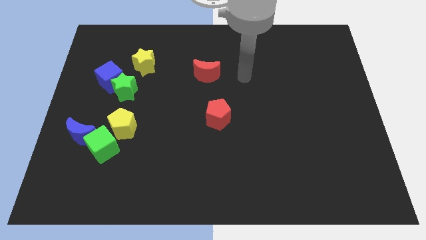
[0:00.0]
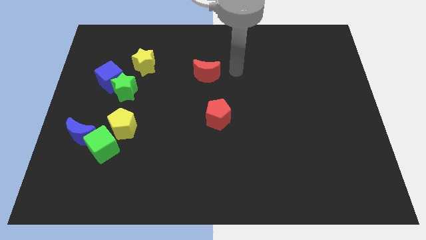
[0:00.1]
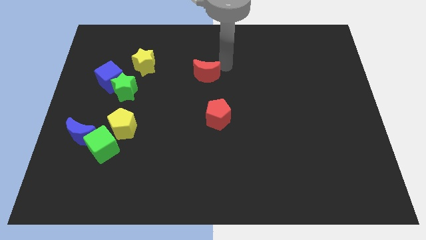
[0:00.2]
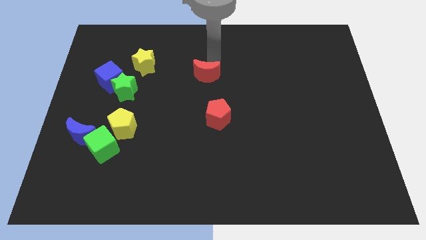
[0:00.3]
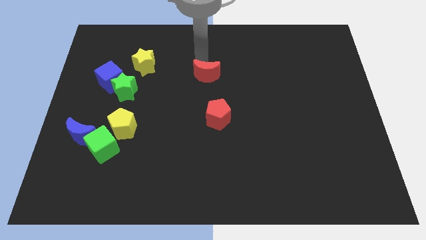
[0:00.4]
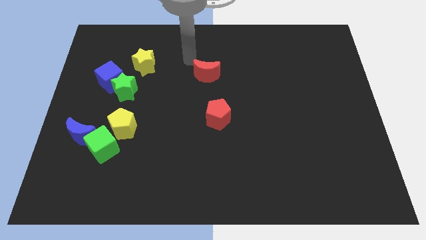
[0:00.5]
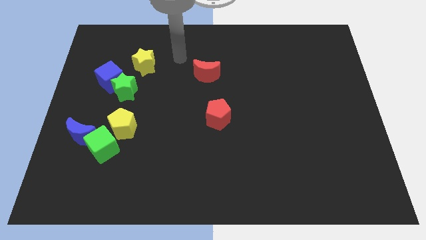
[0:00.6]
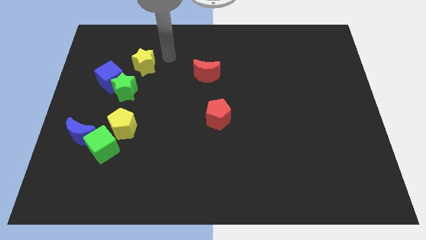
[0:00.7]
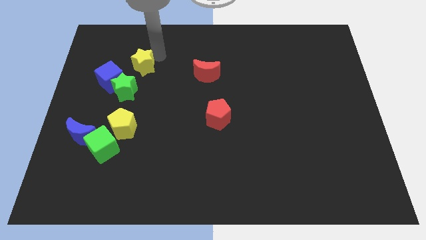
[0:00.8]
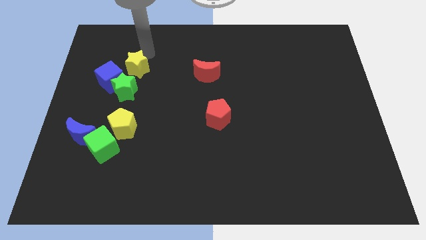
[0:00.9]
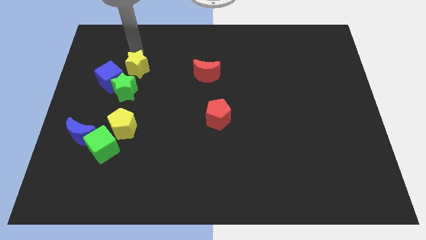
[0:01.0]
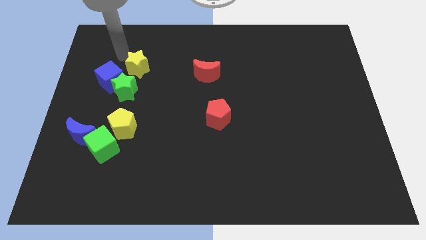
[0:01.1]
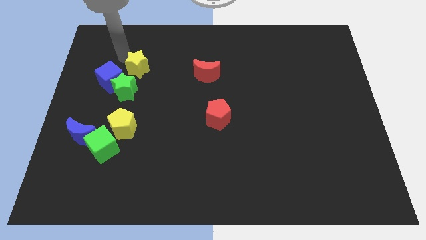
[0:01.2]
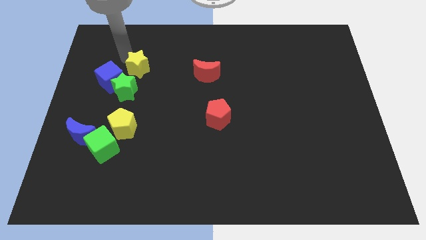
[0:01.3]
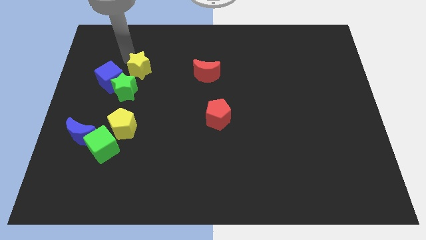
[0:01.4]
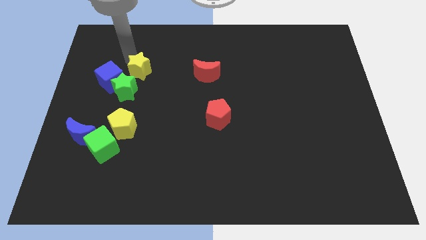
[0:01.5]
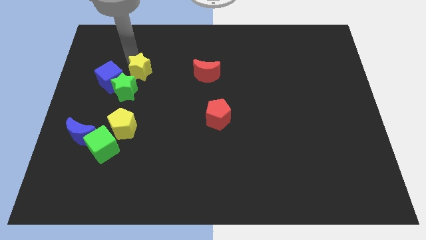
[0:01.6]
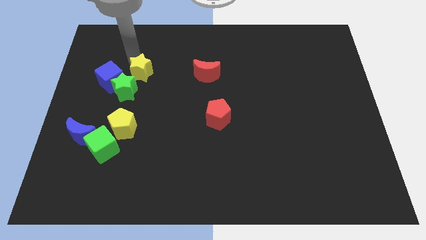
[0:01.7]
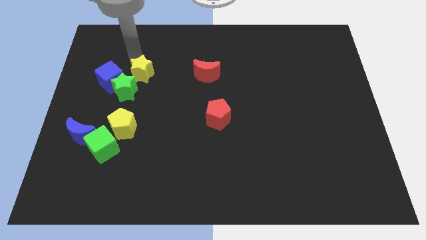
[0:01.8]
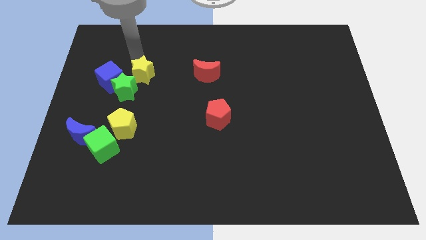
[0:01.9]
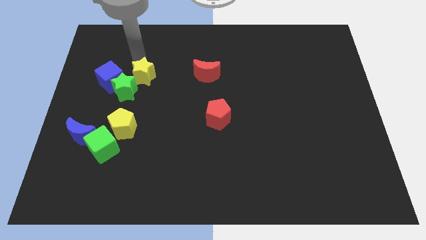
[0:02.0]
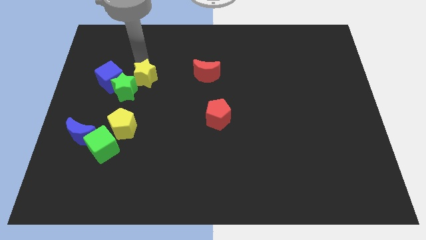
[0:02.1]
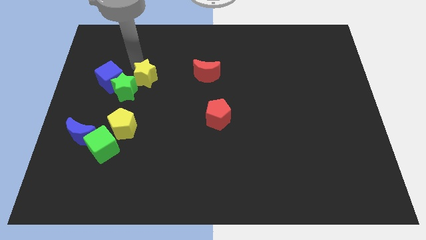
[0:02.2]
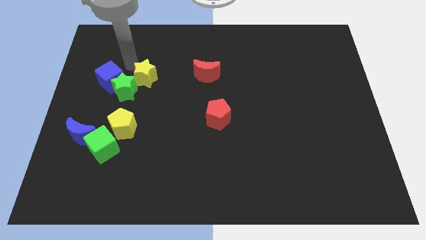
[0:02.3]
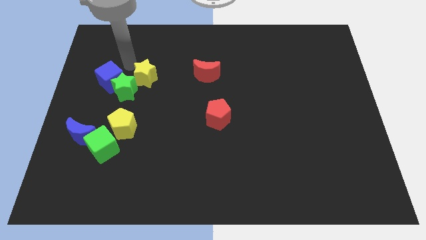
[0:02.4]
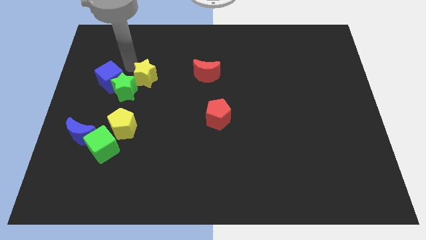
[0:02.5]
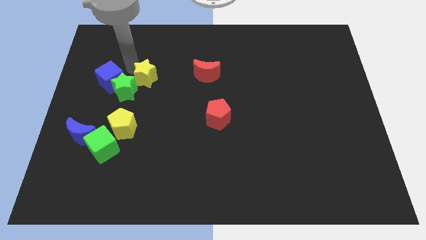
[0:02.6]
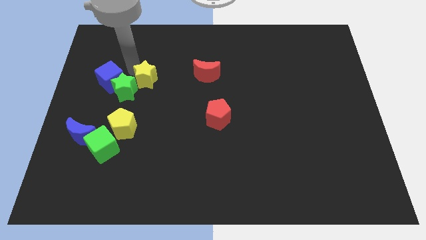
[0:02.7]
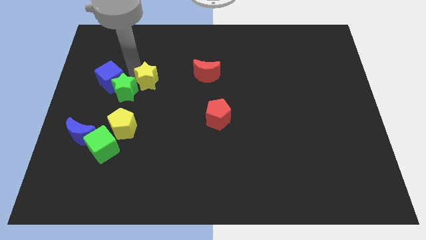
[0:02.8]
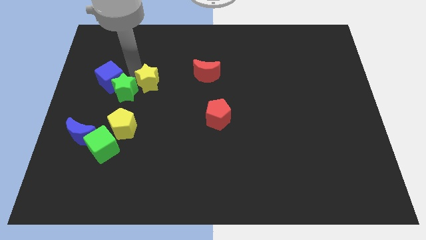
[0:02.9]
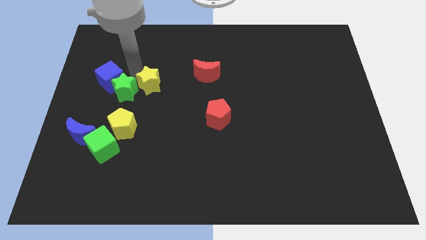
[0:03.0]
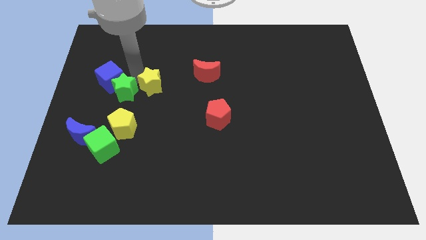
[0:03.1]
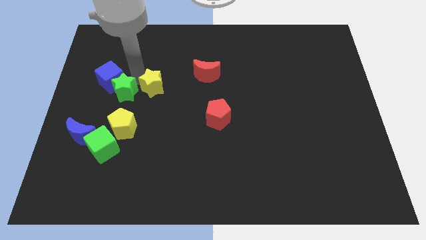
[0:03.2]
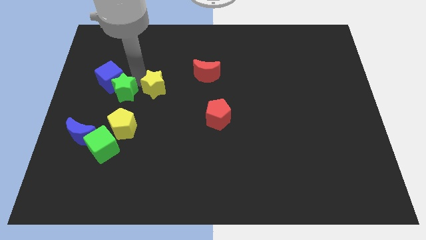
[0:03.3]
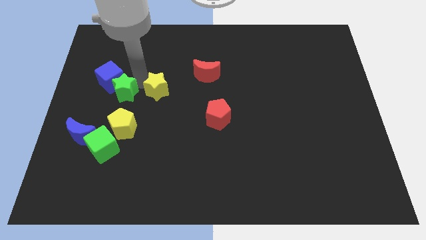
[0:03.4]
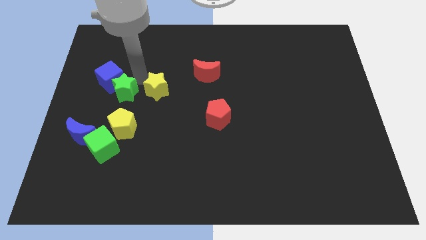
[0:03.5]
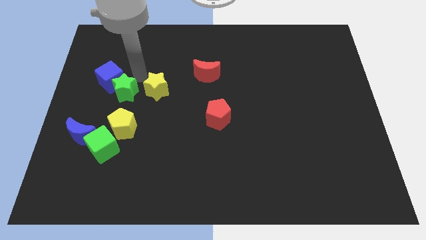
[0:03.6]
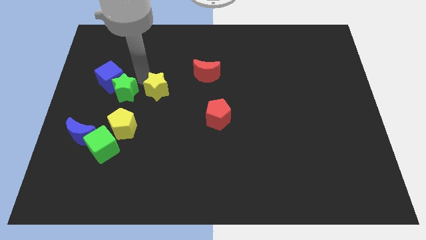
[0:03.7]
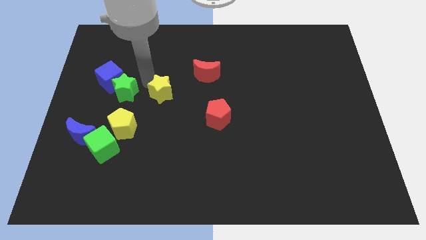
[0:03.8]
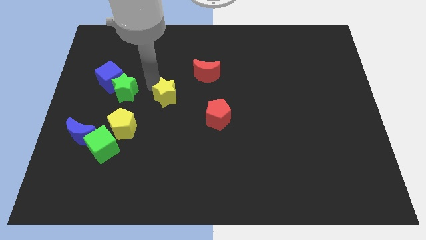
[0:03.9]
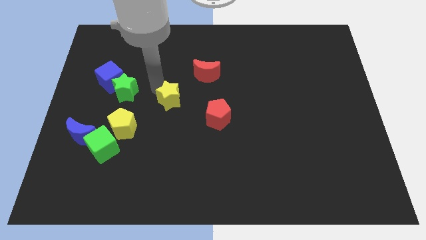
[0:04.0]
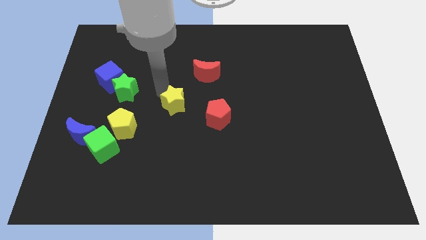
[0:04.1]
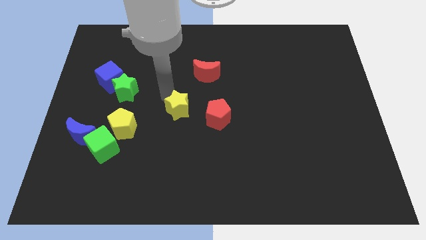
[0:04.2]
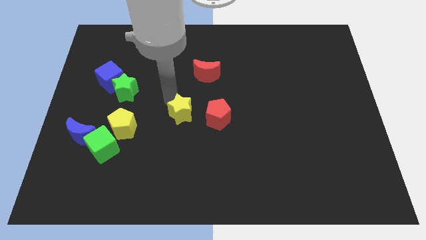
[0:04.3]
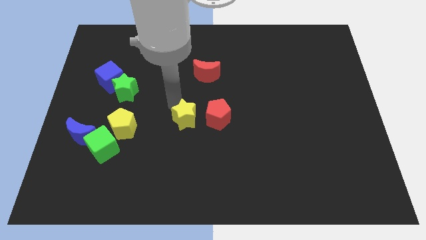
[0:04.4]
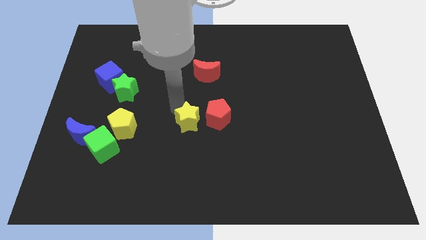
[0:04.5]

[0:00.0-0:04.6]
slide the yellow star down and to the right

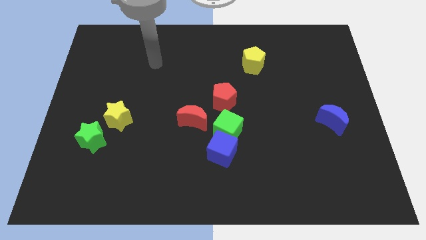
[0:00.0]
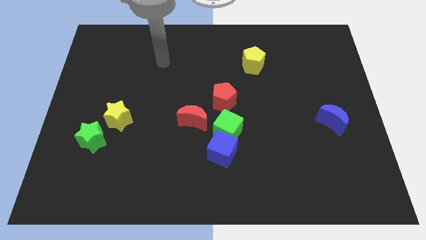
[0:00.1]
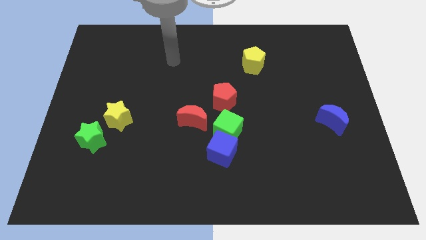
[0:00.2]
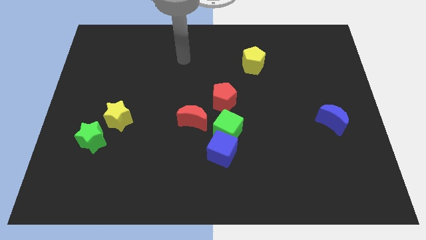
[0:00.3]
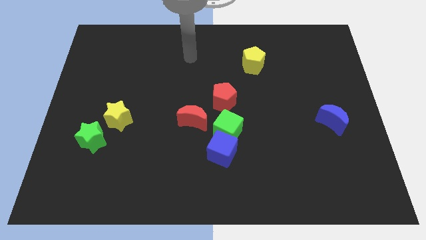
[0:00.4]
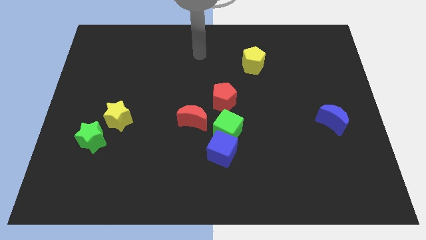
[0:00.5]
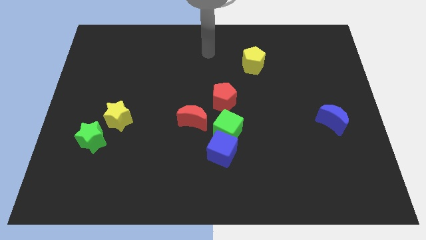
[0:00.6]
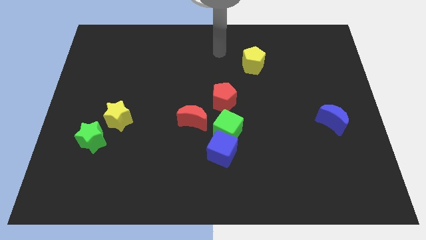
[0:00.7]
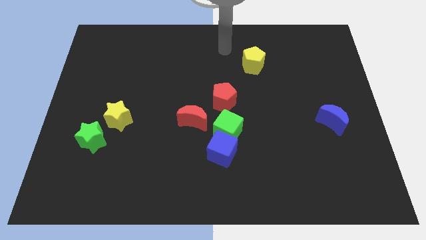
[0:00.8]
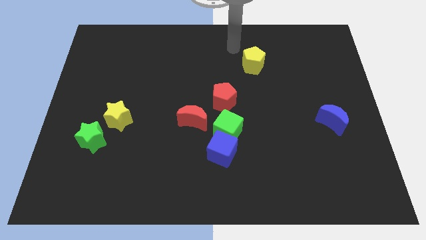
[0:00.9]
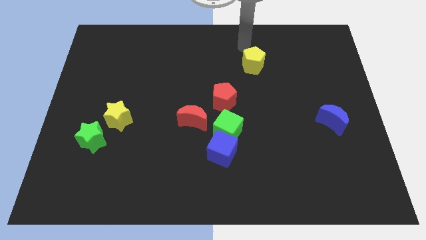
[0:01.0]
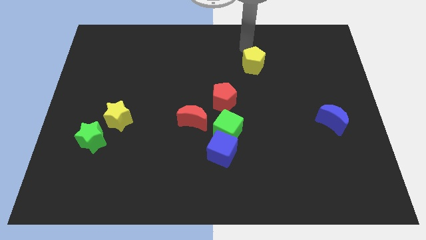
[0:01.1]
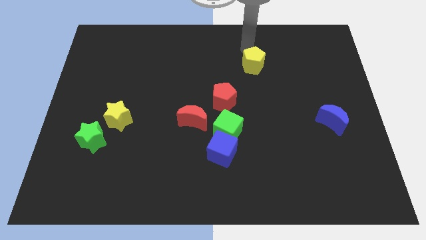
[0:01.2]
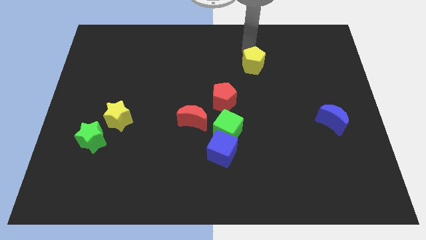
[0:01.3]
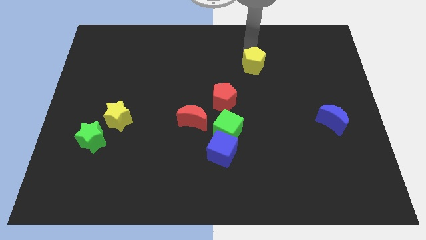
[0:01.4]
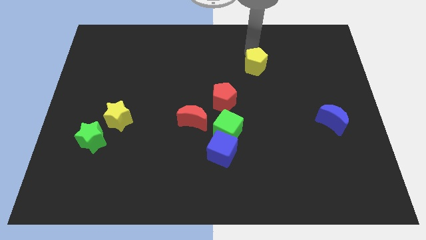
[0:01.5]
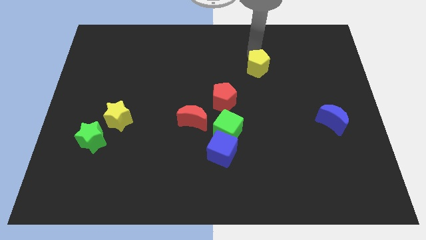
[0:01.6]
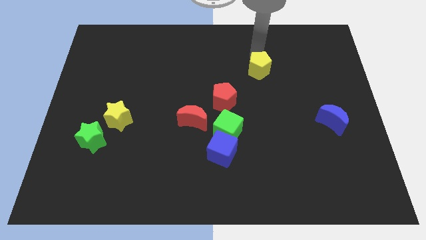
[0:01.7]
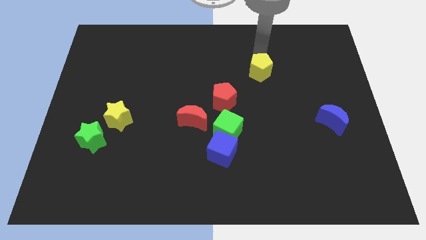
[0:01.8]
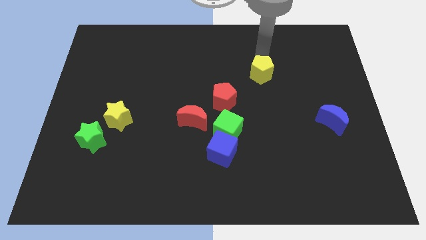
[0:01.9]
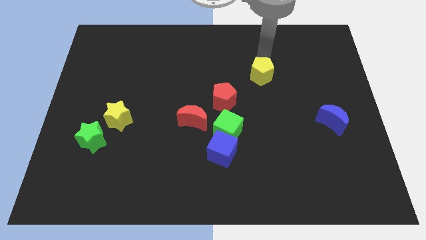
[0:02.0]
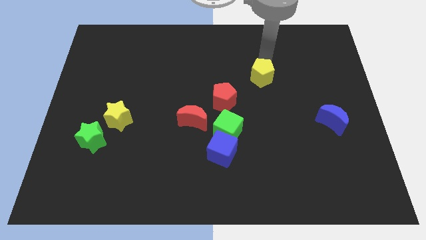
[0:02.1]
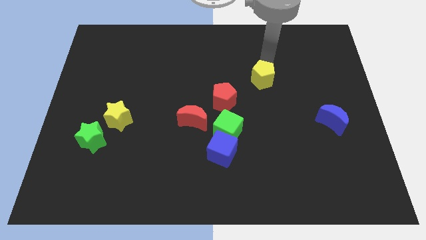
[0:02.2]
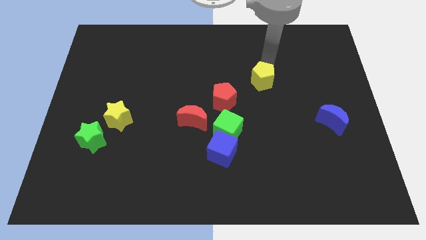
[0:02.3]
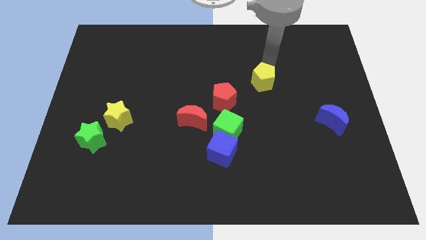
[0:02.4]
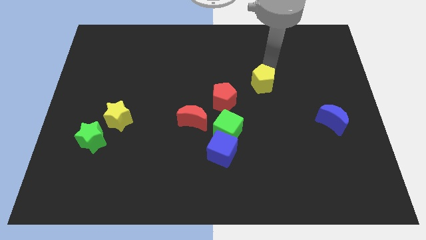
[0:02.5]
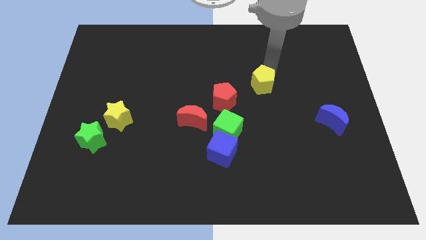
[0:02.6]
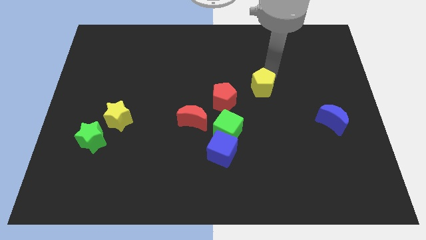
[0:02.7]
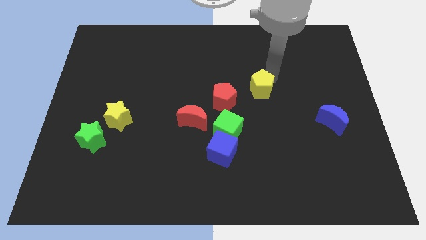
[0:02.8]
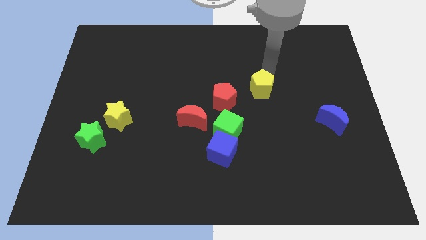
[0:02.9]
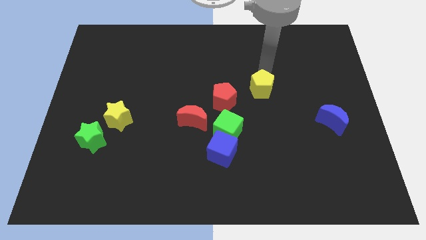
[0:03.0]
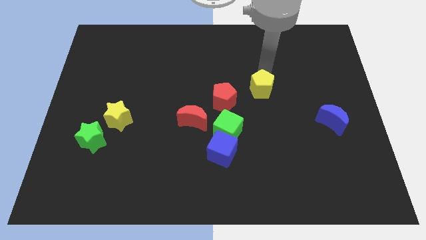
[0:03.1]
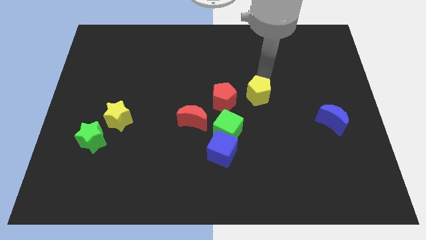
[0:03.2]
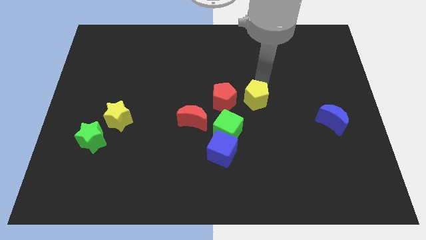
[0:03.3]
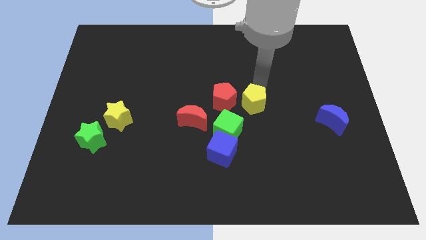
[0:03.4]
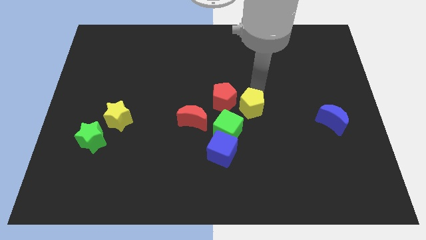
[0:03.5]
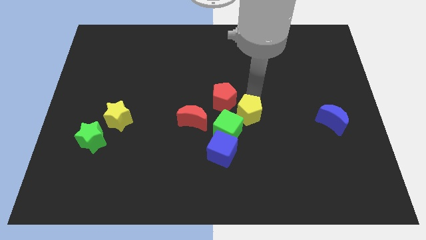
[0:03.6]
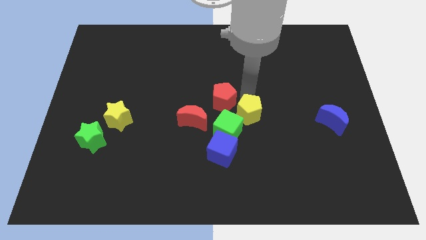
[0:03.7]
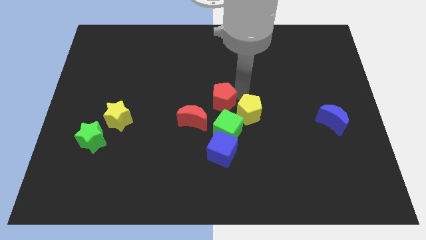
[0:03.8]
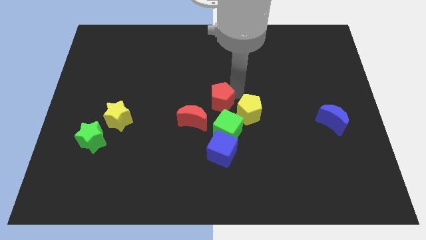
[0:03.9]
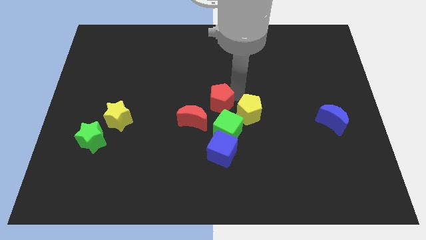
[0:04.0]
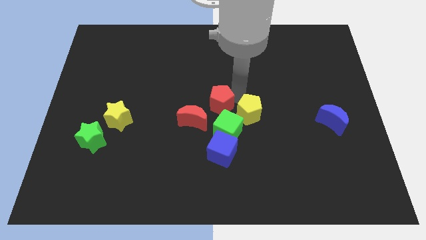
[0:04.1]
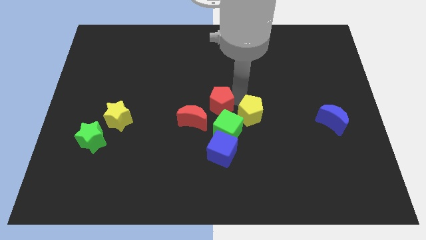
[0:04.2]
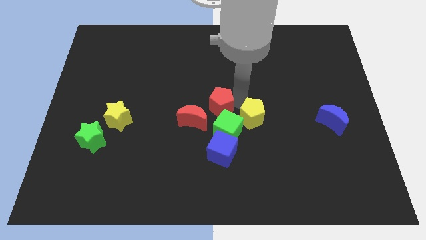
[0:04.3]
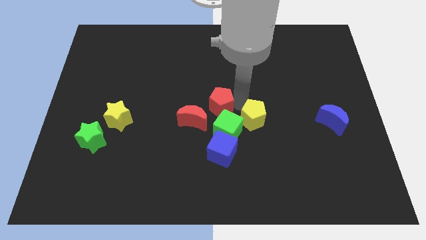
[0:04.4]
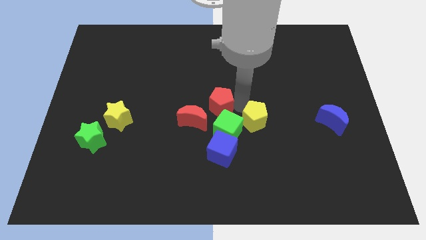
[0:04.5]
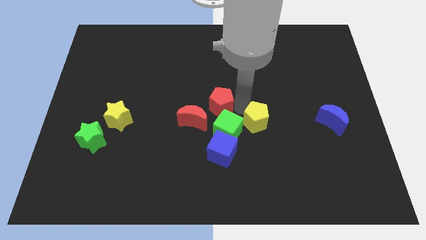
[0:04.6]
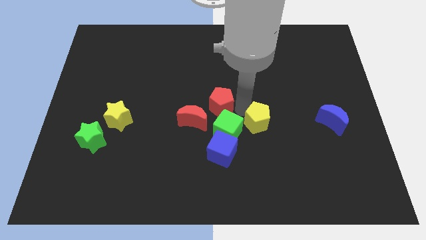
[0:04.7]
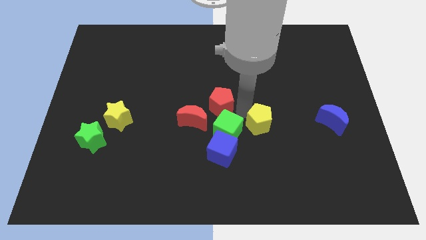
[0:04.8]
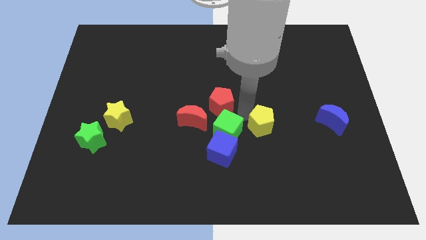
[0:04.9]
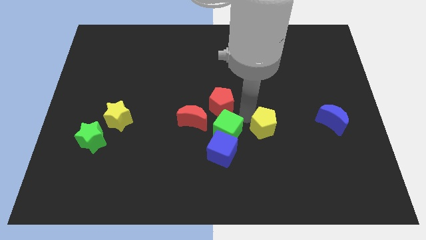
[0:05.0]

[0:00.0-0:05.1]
slide the yellow pentagon downwards
